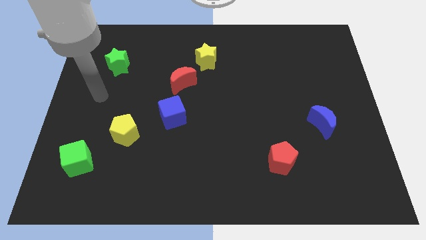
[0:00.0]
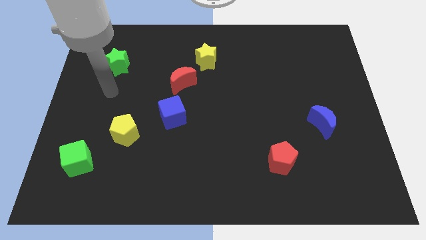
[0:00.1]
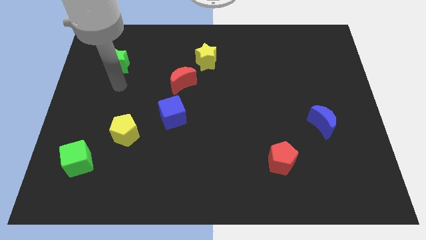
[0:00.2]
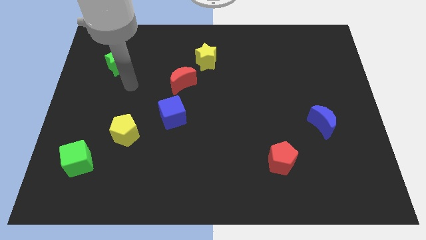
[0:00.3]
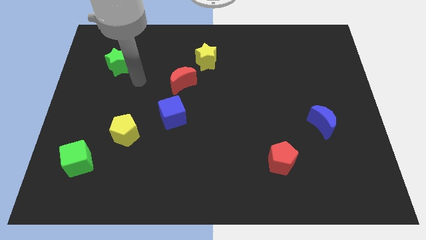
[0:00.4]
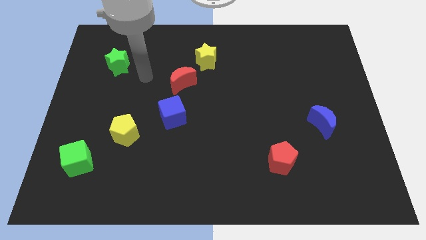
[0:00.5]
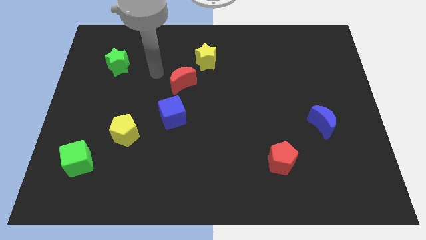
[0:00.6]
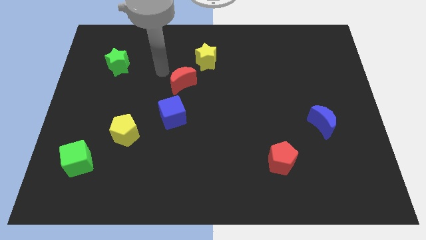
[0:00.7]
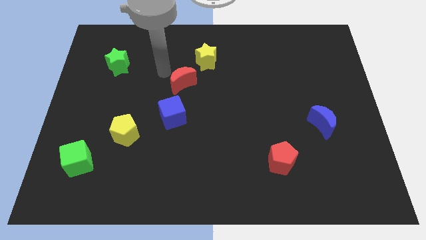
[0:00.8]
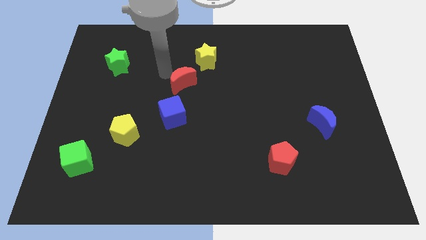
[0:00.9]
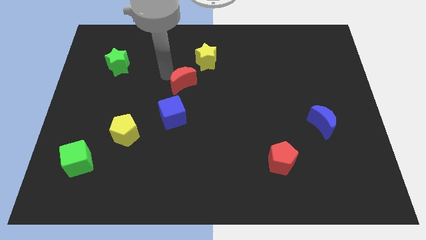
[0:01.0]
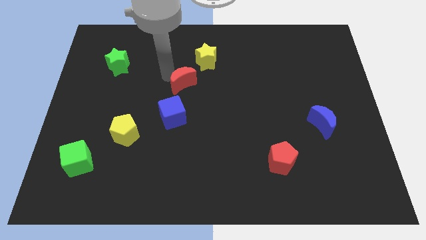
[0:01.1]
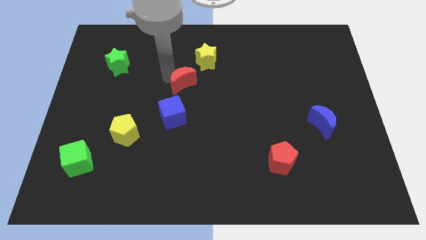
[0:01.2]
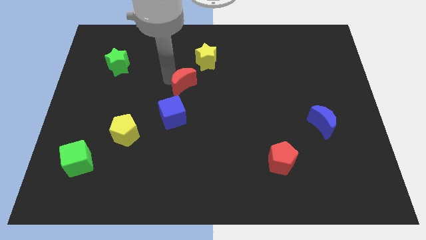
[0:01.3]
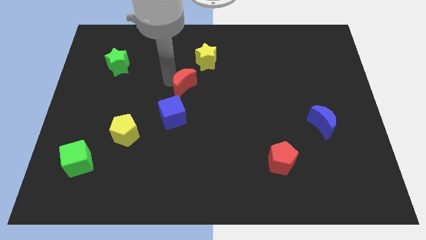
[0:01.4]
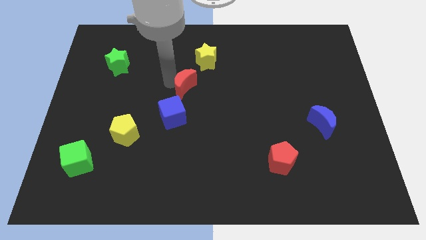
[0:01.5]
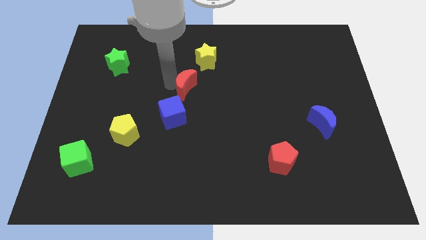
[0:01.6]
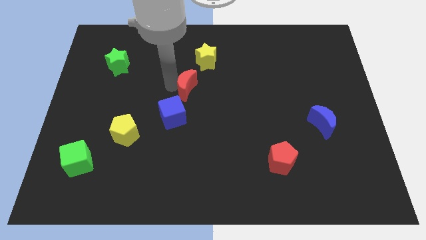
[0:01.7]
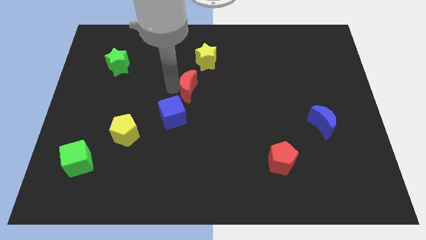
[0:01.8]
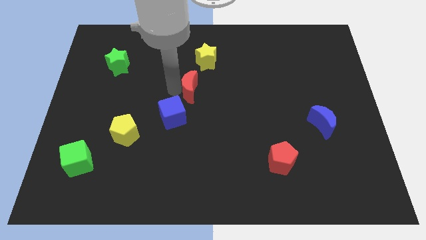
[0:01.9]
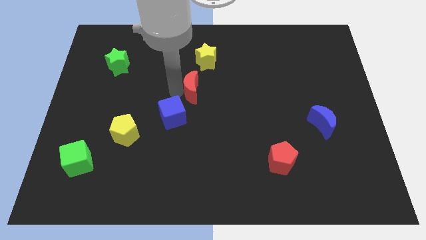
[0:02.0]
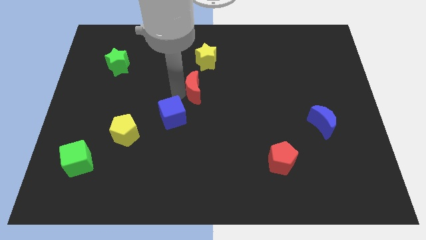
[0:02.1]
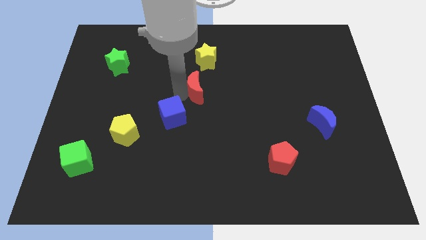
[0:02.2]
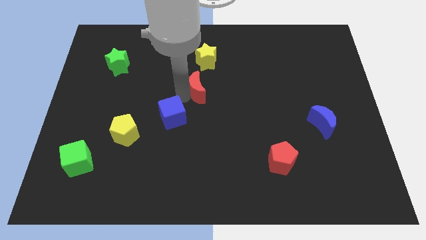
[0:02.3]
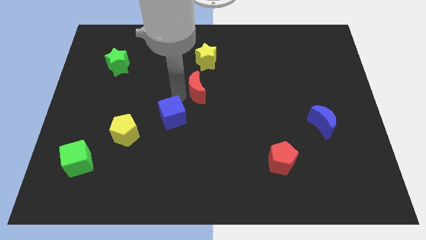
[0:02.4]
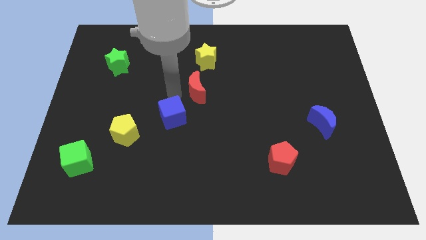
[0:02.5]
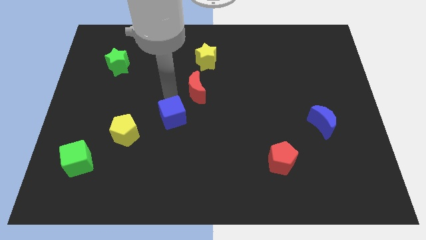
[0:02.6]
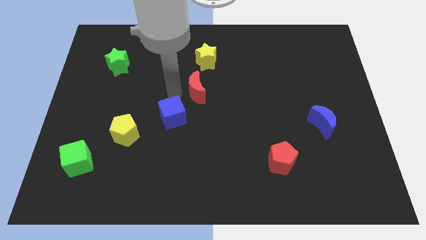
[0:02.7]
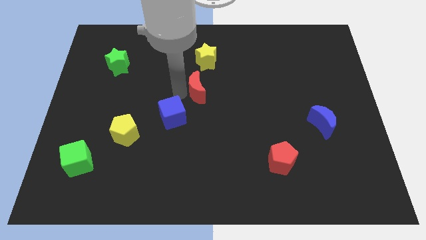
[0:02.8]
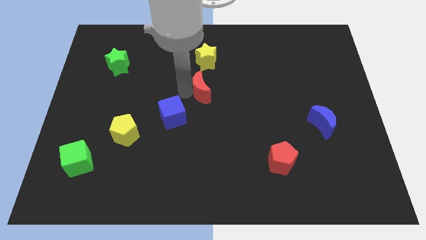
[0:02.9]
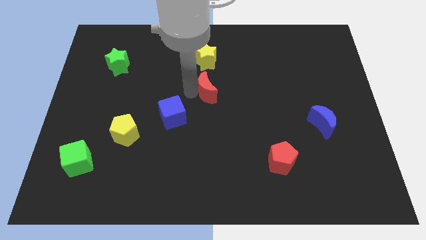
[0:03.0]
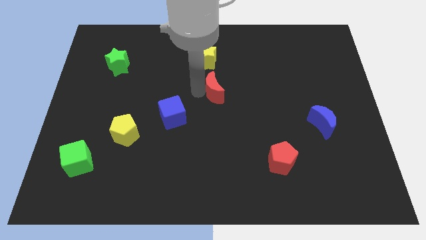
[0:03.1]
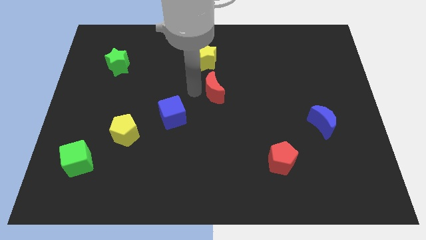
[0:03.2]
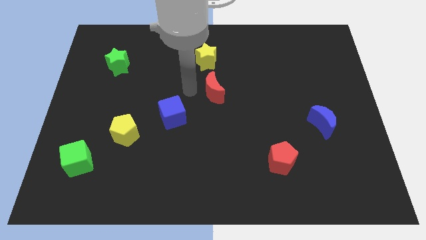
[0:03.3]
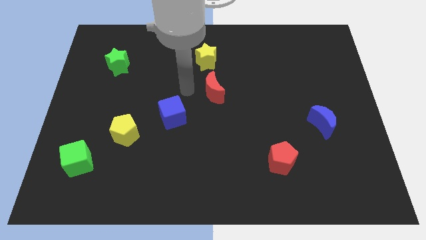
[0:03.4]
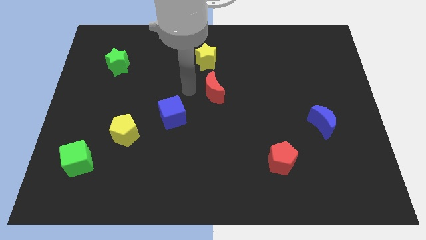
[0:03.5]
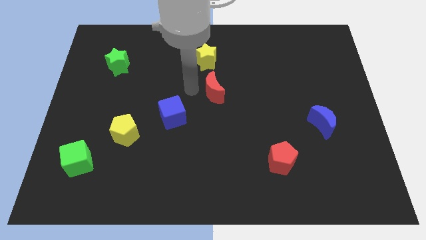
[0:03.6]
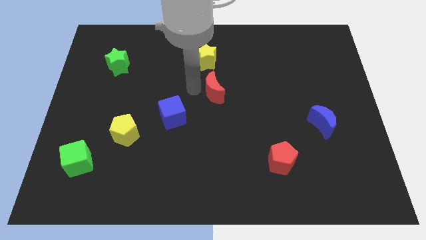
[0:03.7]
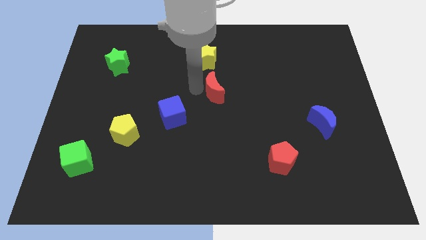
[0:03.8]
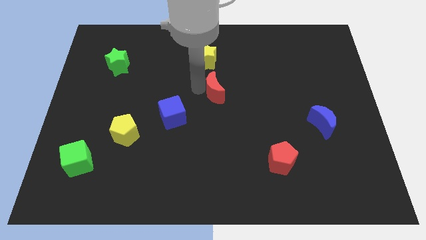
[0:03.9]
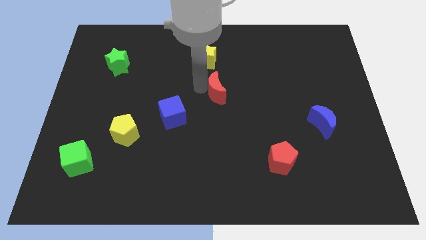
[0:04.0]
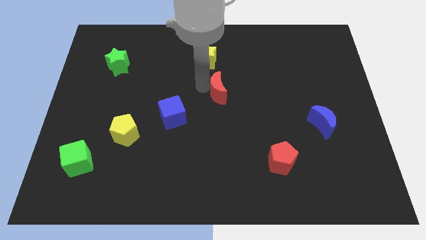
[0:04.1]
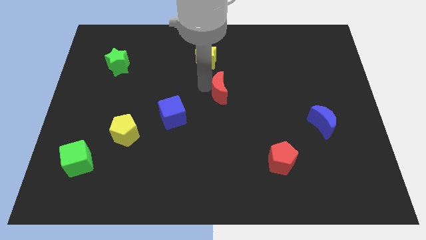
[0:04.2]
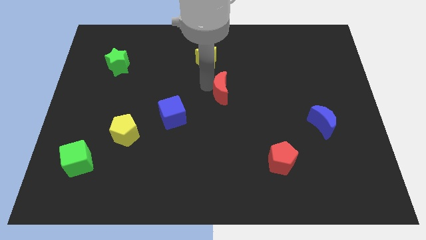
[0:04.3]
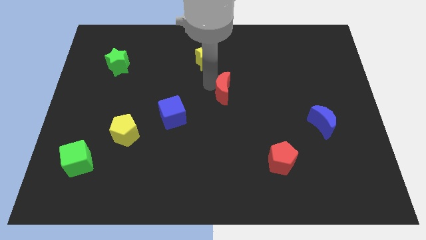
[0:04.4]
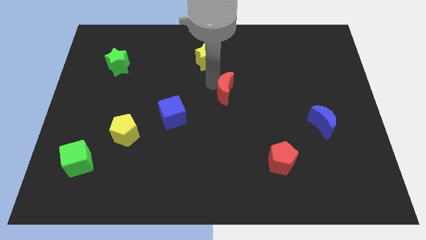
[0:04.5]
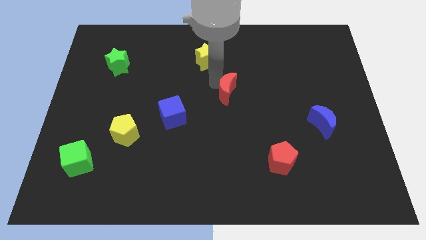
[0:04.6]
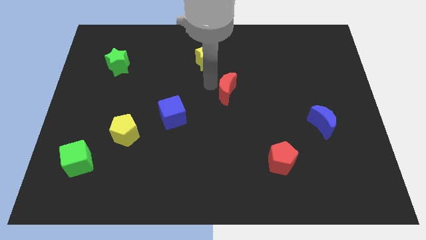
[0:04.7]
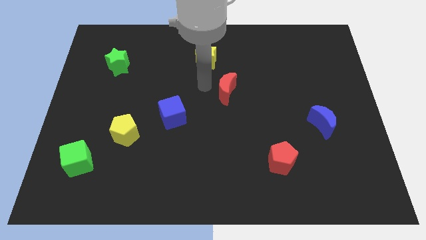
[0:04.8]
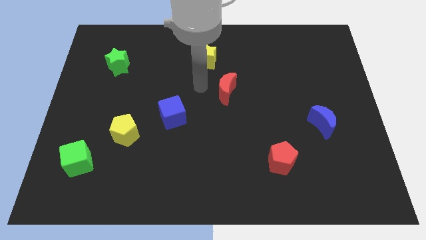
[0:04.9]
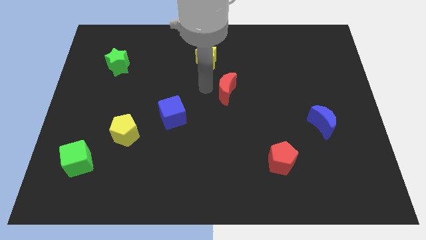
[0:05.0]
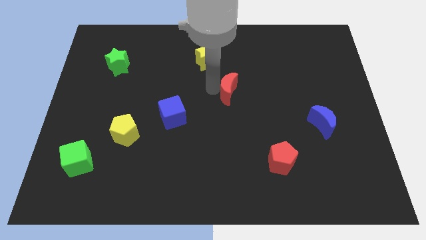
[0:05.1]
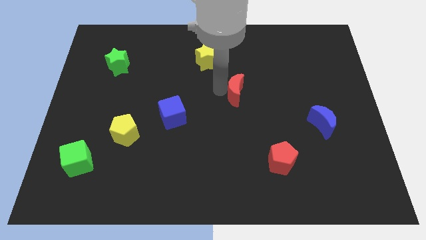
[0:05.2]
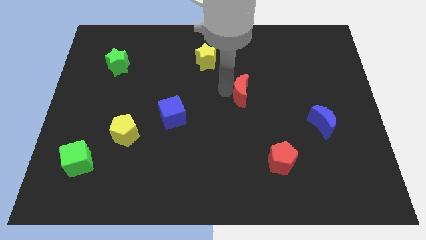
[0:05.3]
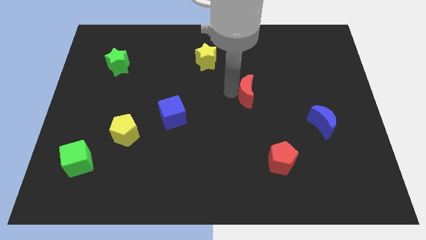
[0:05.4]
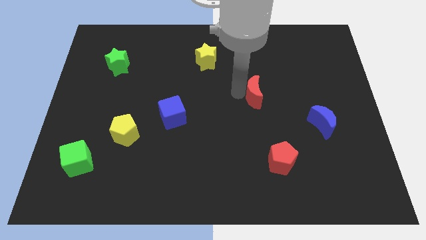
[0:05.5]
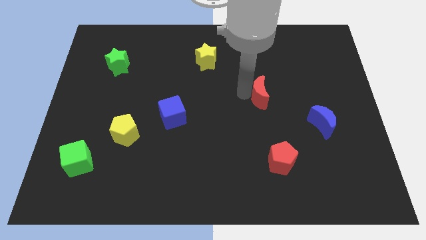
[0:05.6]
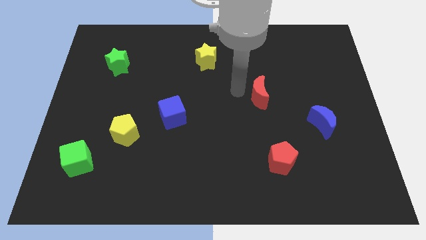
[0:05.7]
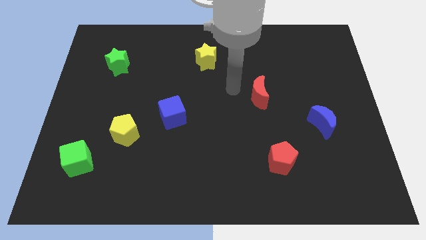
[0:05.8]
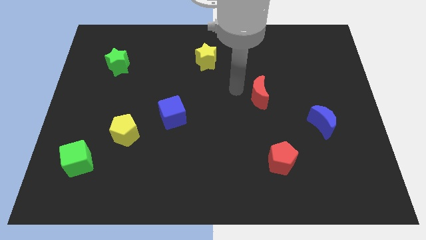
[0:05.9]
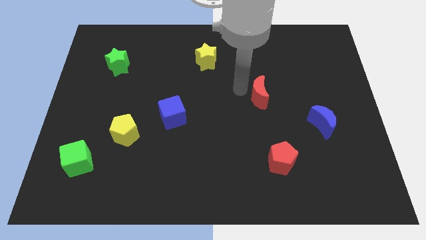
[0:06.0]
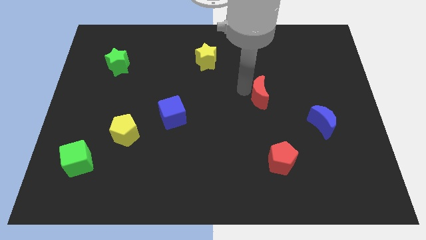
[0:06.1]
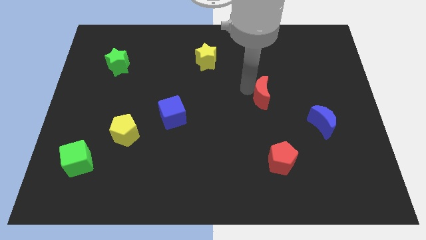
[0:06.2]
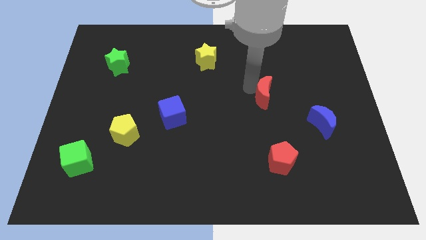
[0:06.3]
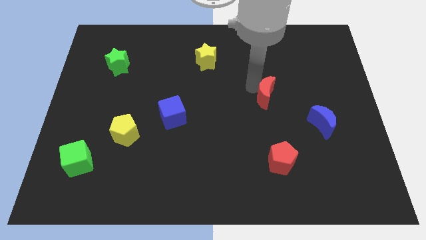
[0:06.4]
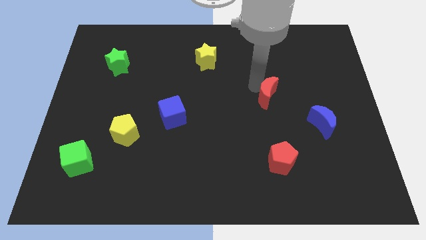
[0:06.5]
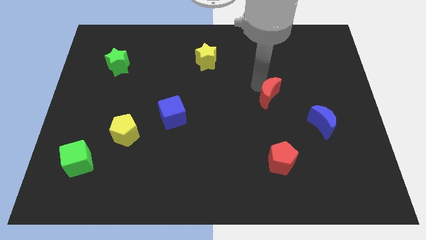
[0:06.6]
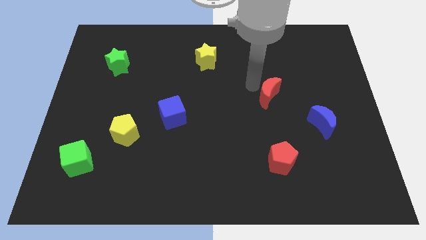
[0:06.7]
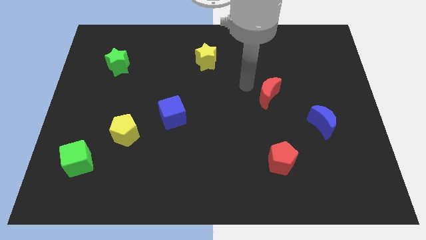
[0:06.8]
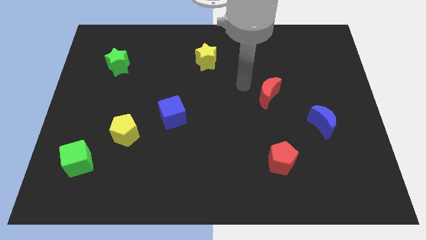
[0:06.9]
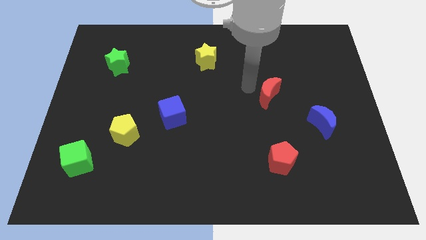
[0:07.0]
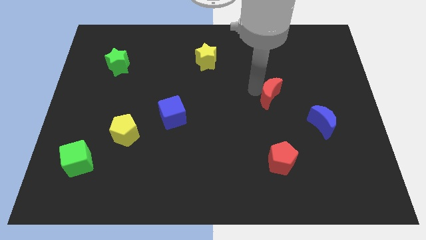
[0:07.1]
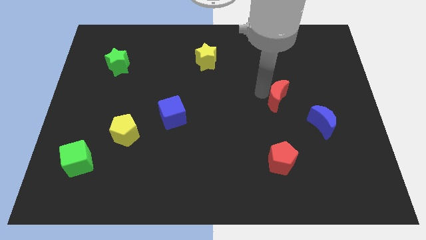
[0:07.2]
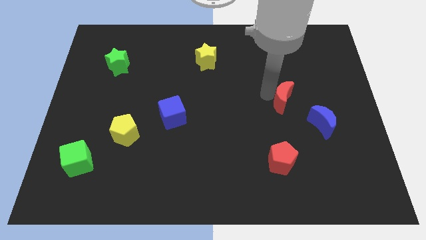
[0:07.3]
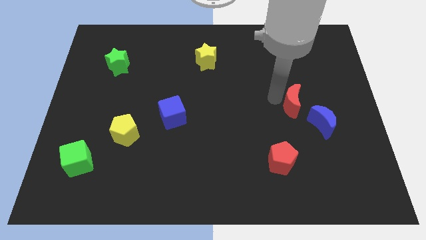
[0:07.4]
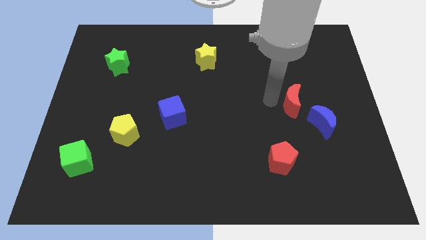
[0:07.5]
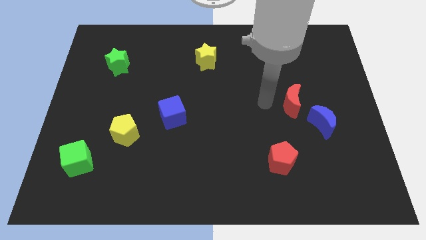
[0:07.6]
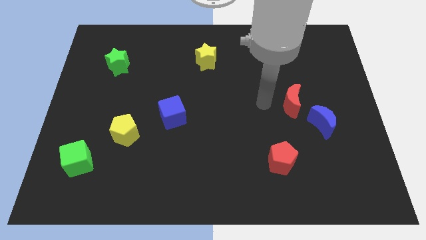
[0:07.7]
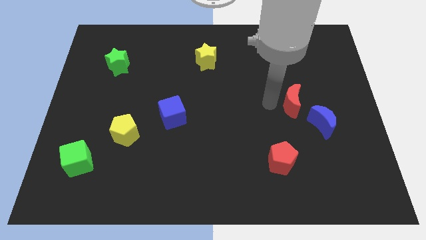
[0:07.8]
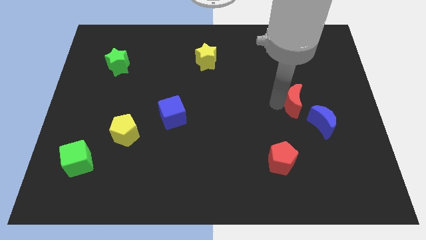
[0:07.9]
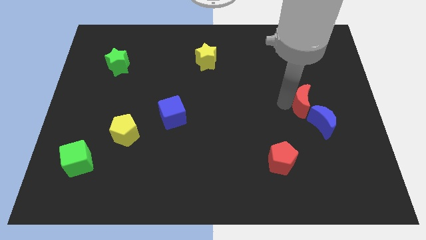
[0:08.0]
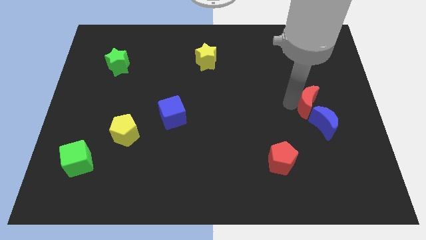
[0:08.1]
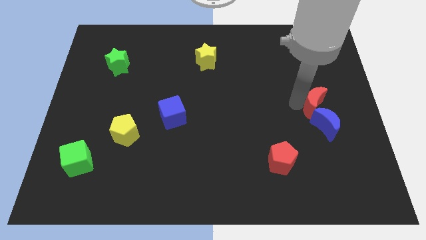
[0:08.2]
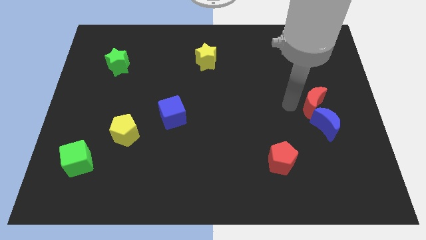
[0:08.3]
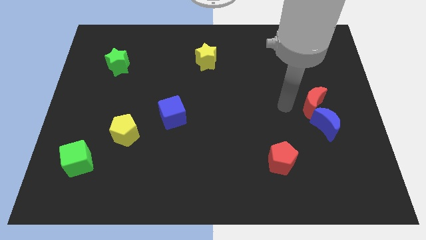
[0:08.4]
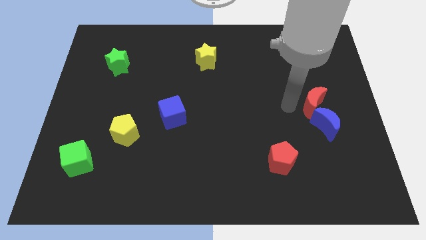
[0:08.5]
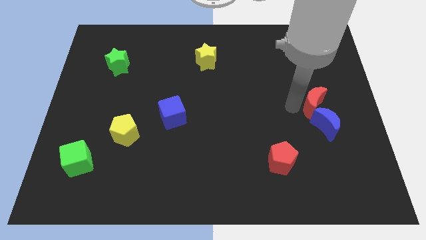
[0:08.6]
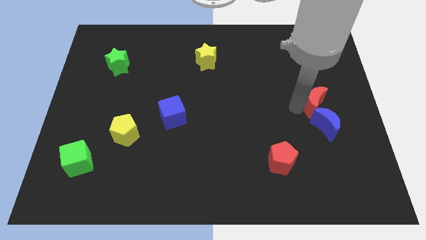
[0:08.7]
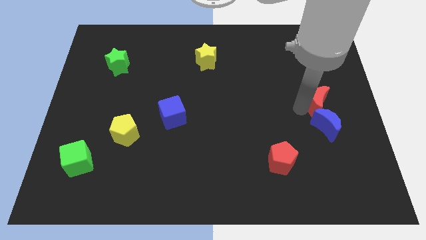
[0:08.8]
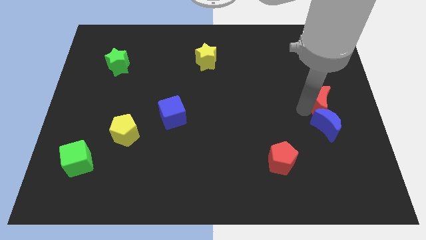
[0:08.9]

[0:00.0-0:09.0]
push the red moon to the right side
